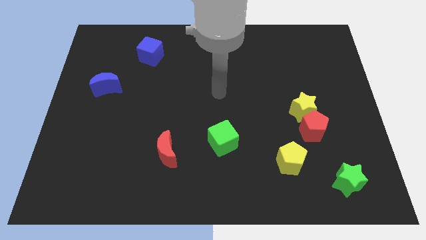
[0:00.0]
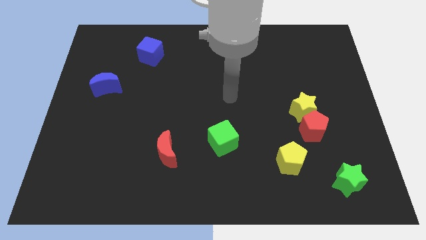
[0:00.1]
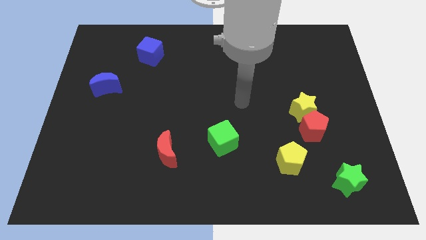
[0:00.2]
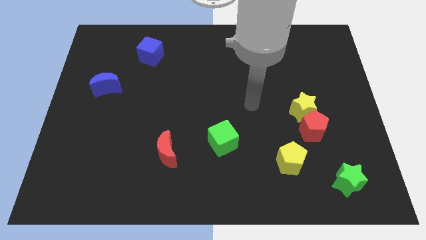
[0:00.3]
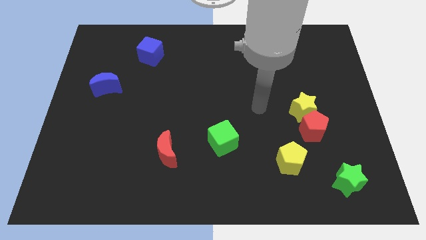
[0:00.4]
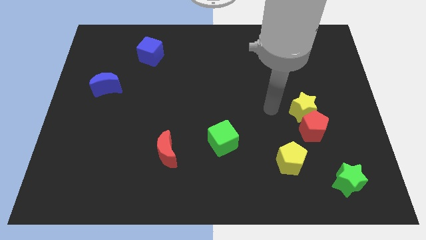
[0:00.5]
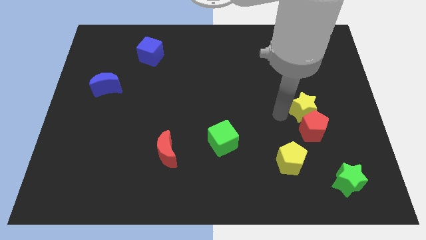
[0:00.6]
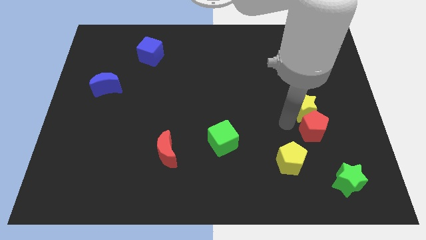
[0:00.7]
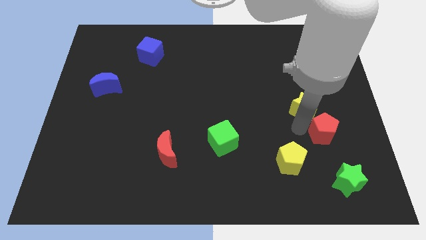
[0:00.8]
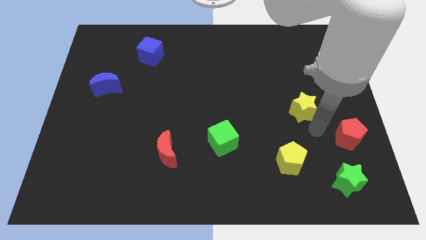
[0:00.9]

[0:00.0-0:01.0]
move the yellow star away from the red pentagon

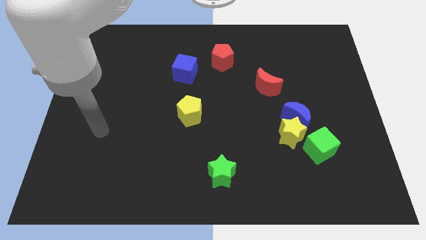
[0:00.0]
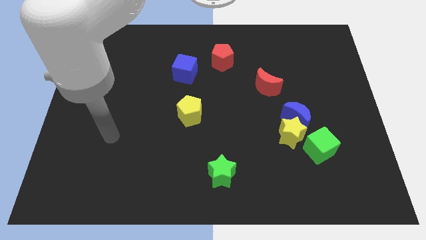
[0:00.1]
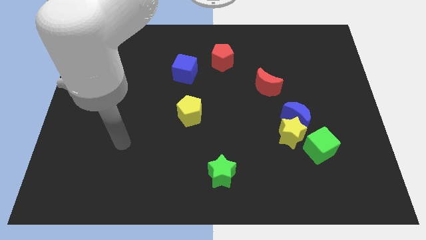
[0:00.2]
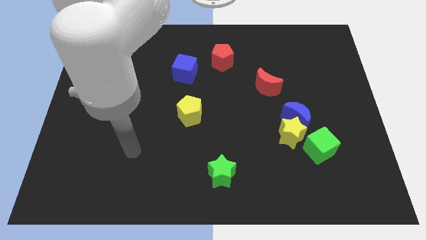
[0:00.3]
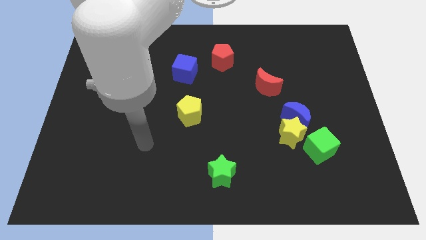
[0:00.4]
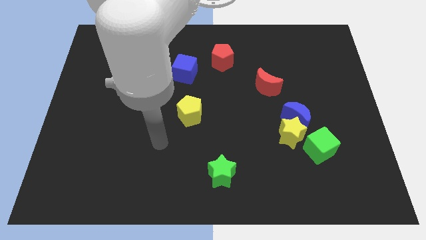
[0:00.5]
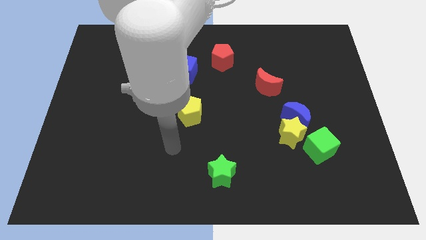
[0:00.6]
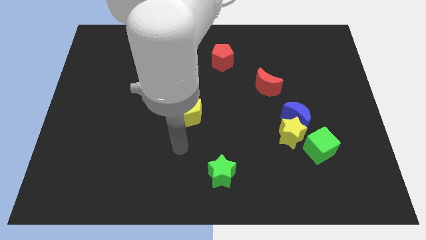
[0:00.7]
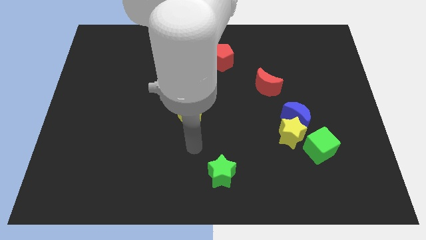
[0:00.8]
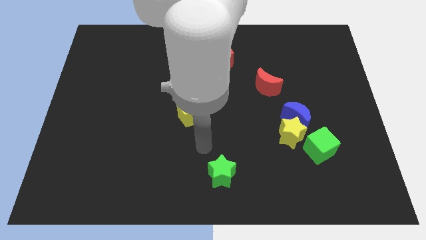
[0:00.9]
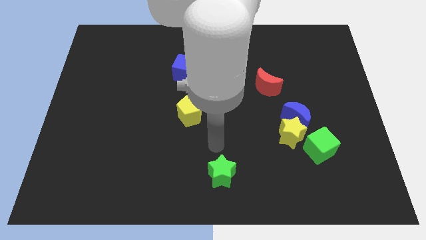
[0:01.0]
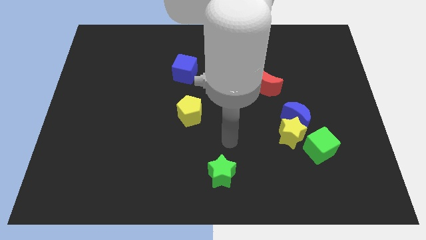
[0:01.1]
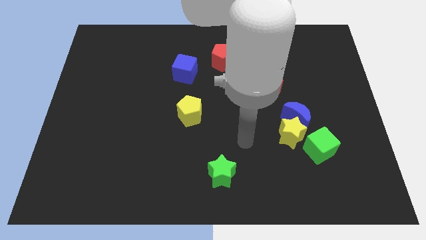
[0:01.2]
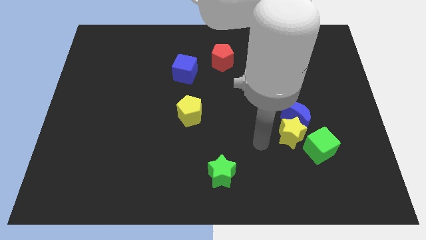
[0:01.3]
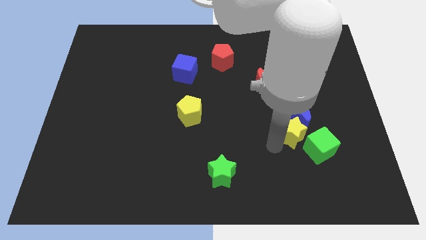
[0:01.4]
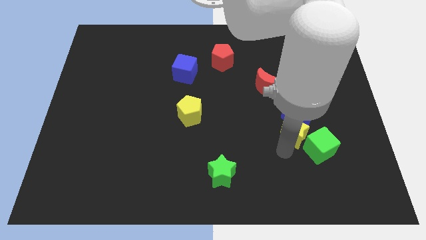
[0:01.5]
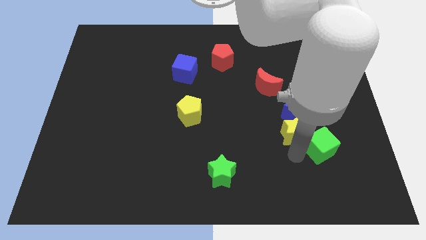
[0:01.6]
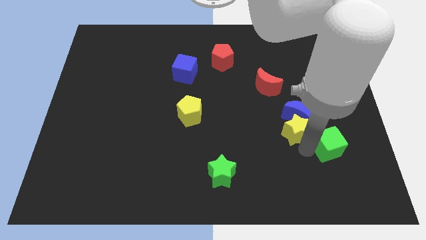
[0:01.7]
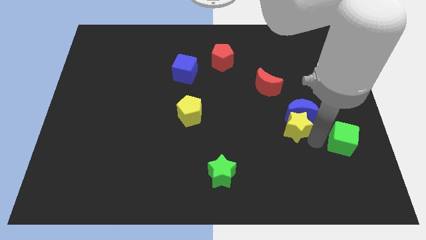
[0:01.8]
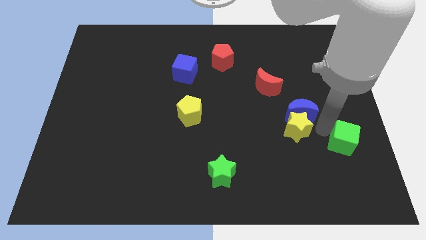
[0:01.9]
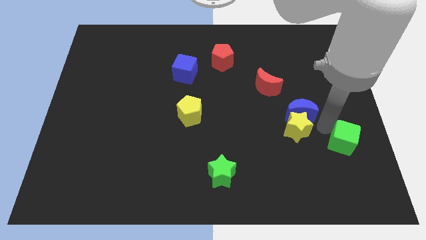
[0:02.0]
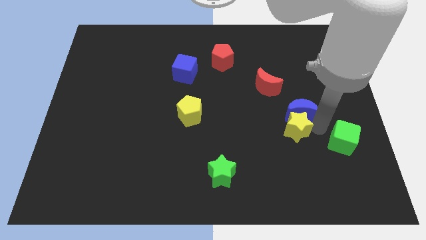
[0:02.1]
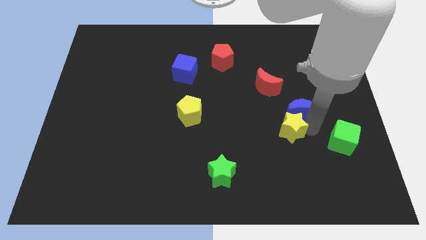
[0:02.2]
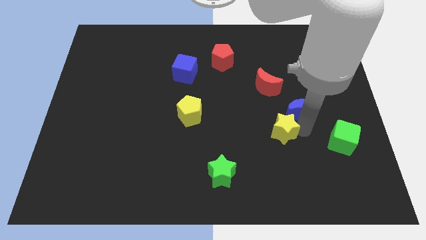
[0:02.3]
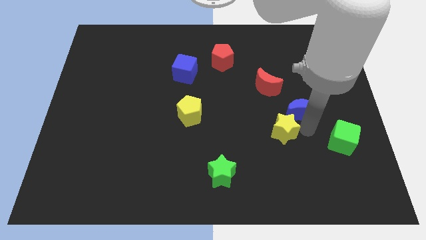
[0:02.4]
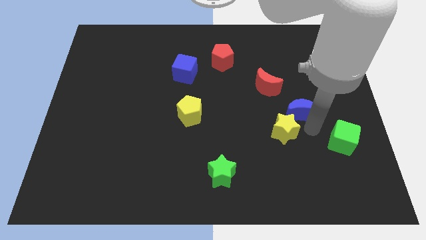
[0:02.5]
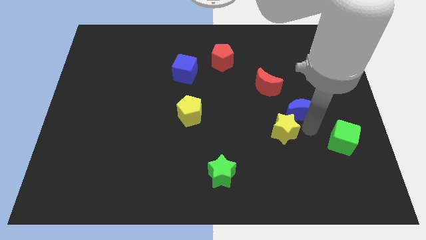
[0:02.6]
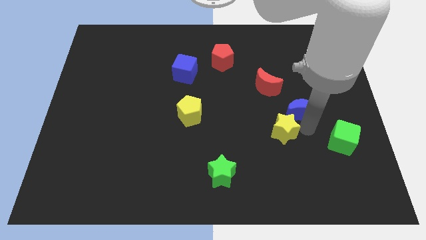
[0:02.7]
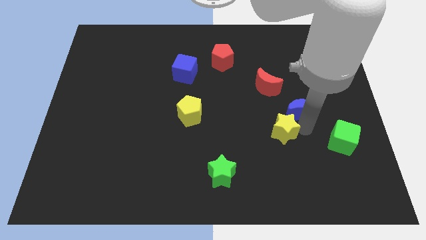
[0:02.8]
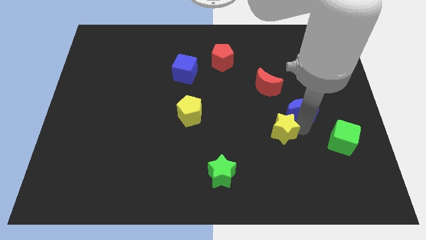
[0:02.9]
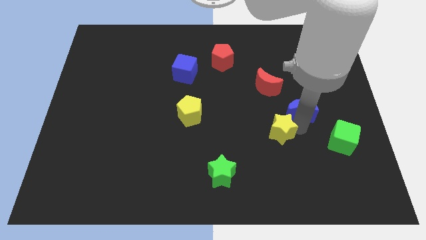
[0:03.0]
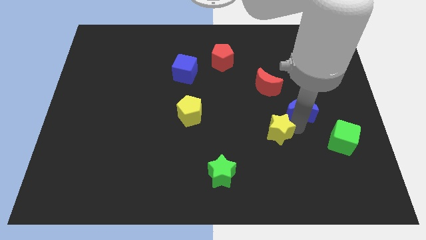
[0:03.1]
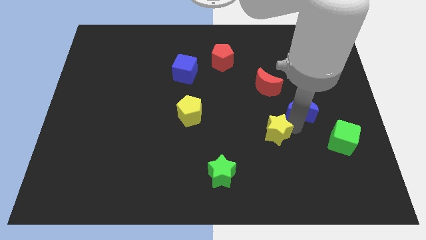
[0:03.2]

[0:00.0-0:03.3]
separate the yellow star from the blue moon and green cube

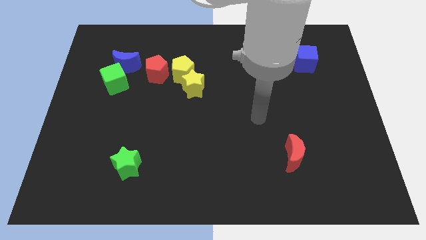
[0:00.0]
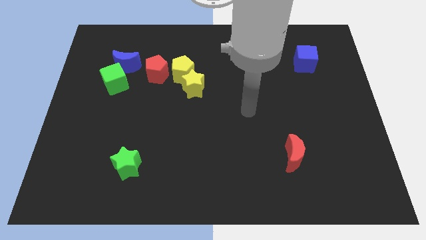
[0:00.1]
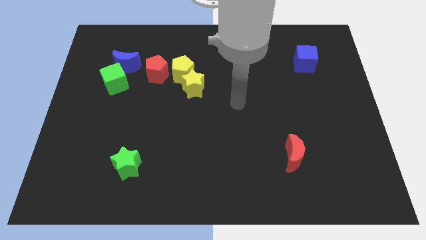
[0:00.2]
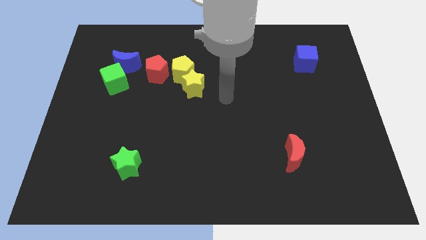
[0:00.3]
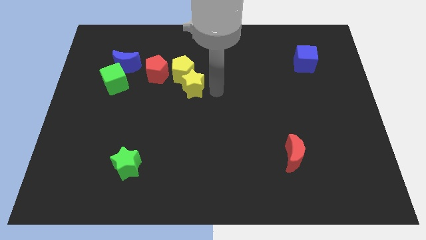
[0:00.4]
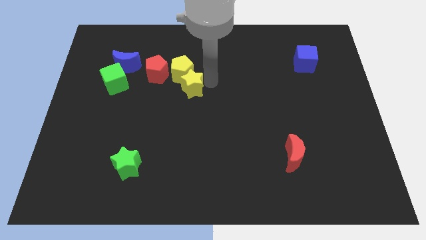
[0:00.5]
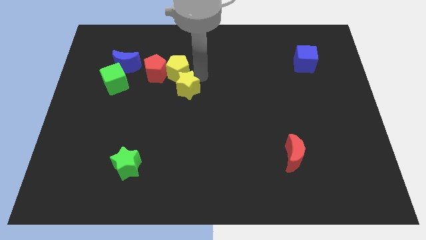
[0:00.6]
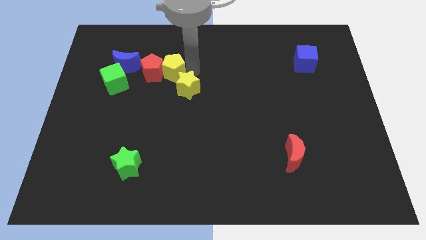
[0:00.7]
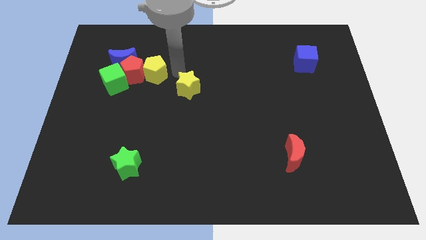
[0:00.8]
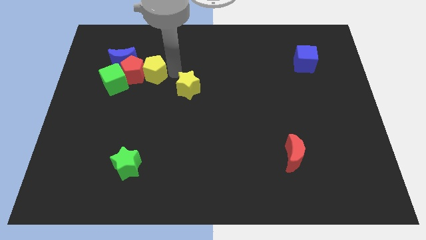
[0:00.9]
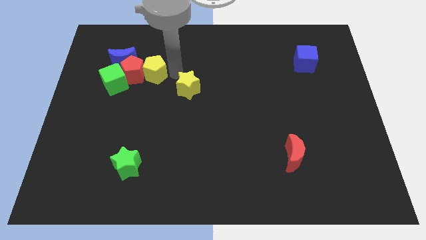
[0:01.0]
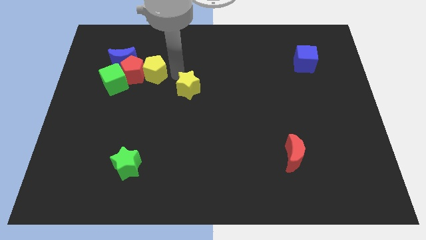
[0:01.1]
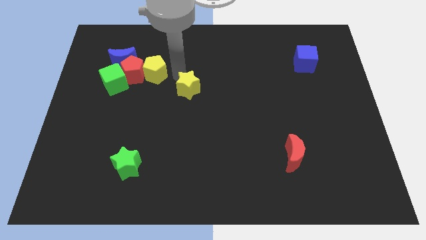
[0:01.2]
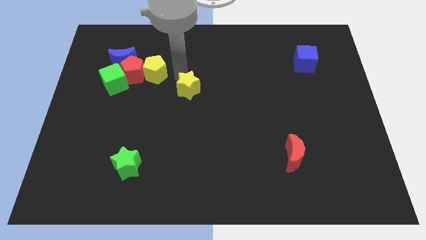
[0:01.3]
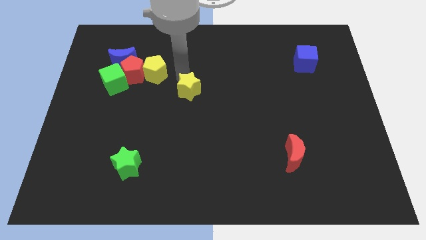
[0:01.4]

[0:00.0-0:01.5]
pull the yellow star apart from the yellow pentagon

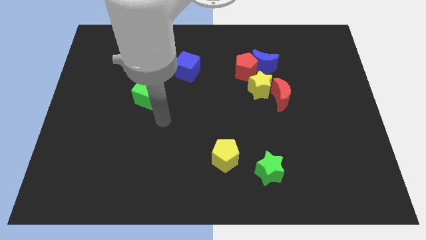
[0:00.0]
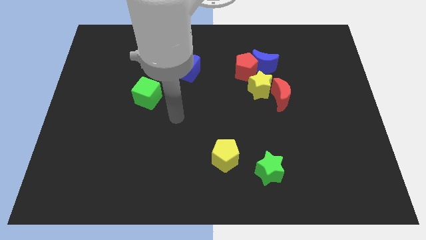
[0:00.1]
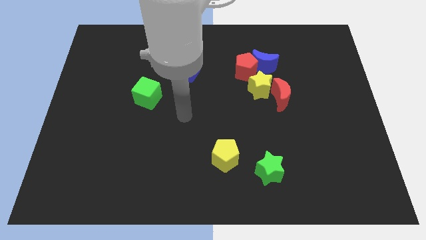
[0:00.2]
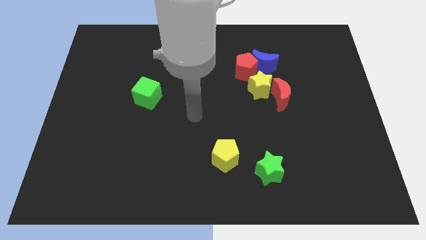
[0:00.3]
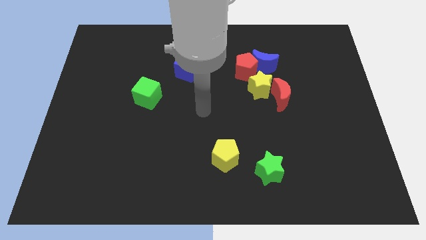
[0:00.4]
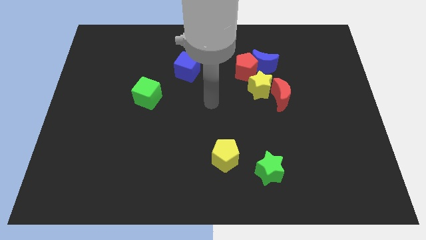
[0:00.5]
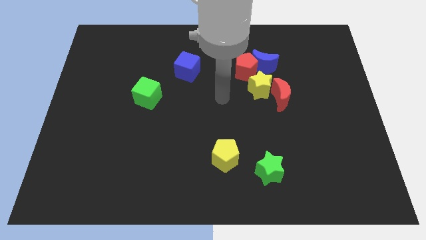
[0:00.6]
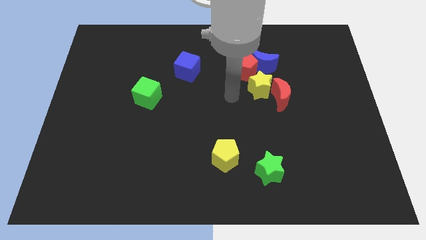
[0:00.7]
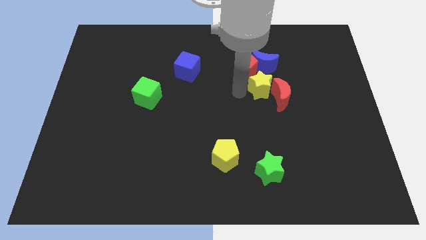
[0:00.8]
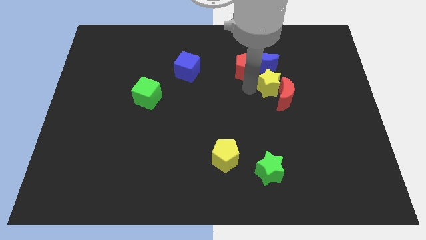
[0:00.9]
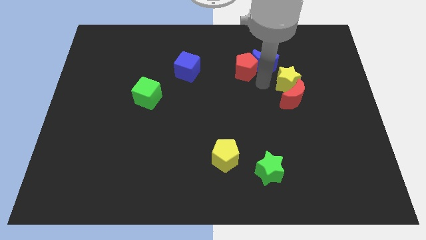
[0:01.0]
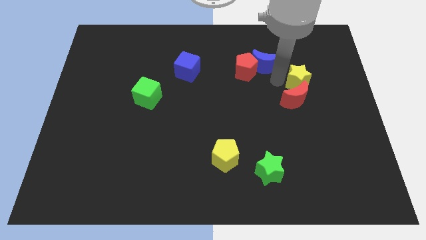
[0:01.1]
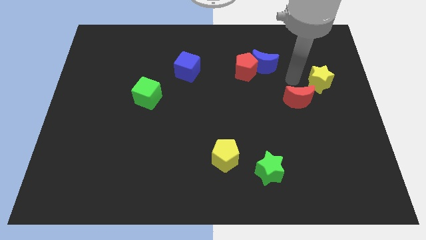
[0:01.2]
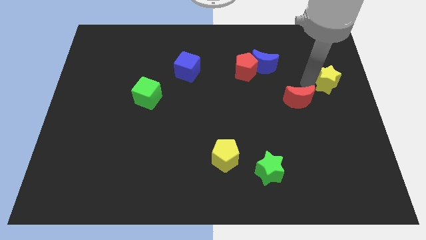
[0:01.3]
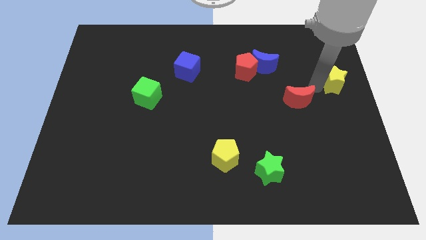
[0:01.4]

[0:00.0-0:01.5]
move the red moon away from the yellow star

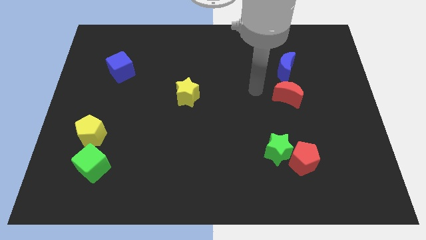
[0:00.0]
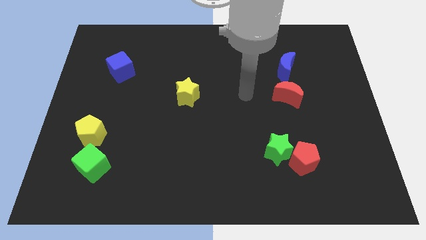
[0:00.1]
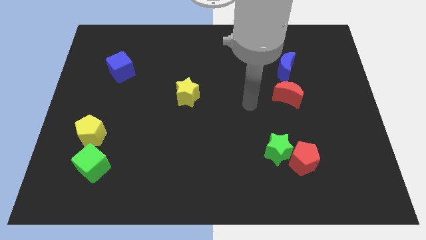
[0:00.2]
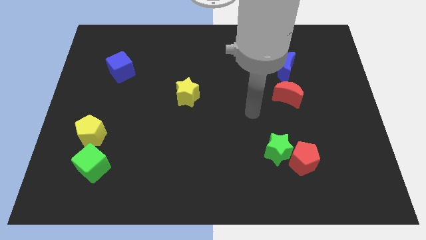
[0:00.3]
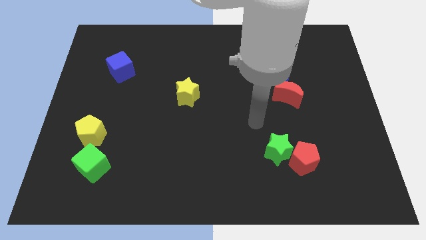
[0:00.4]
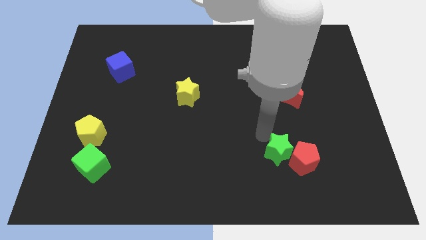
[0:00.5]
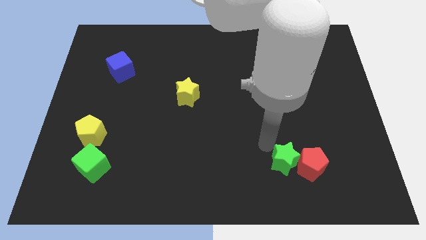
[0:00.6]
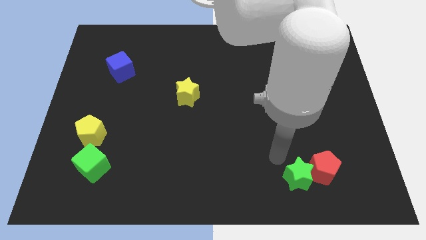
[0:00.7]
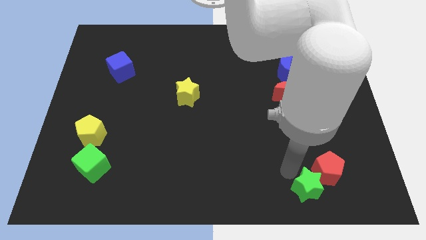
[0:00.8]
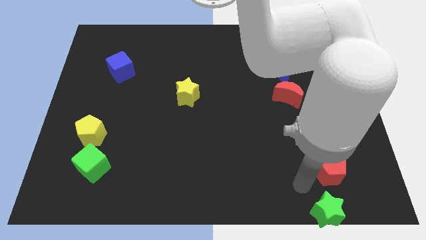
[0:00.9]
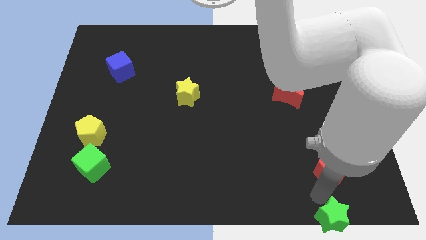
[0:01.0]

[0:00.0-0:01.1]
separate the red pentagon from the green star

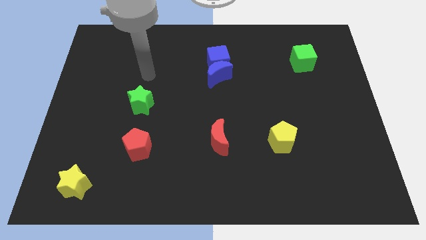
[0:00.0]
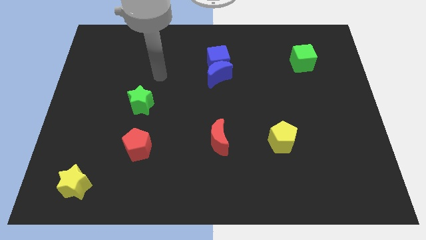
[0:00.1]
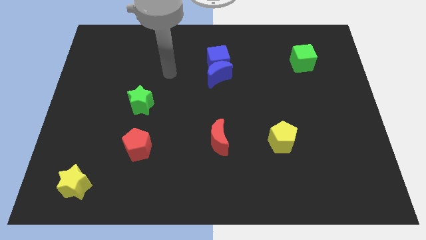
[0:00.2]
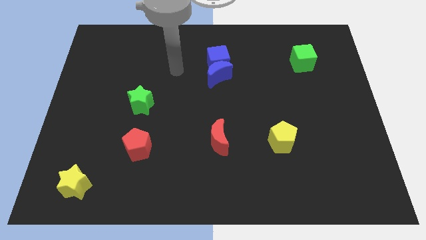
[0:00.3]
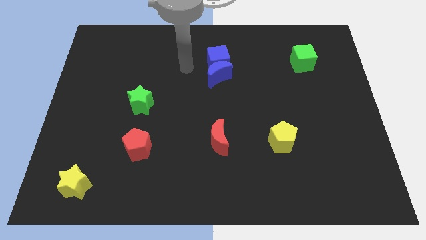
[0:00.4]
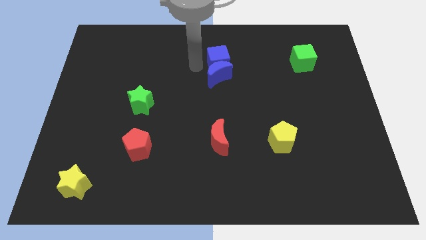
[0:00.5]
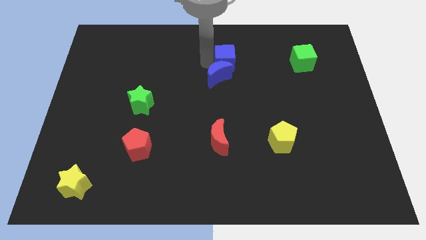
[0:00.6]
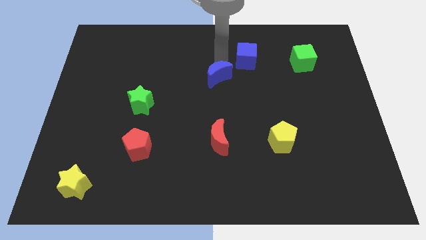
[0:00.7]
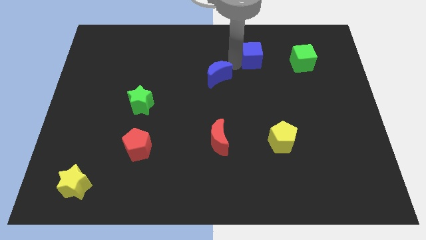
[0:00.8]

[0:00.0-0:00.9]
pull the blue moon apart from the blue cube
